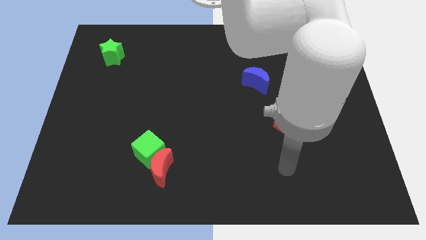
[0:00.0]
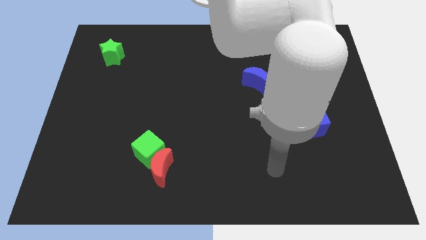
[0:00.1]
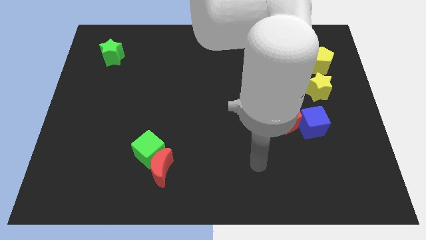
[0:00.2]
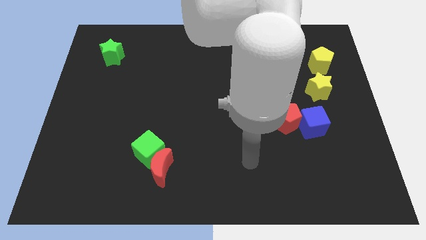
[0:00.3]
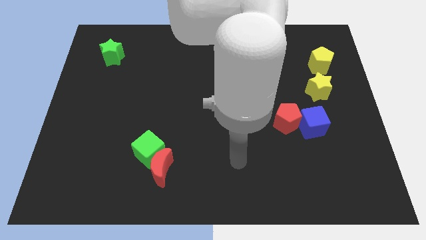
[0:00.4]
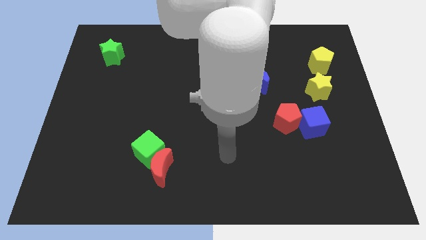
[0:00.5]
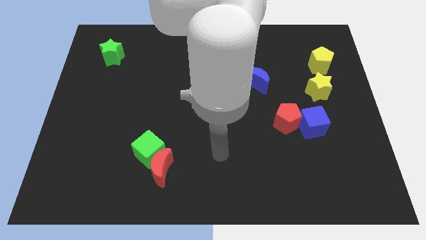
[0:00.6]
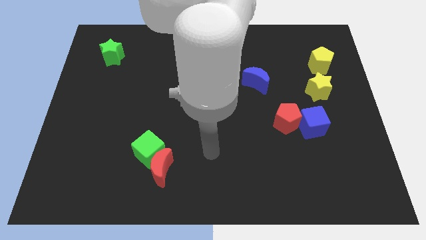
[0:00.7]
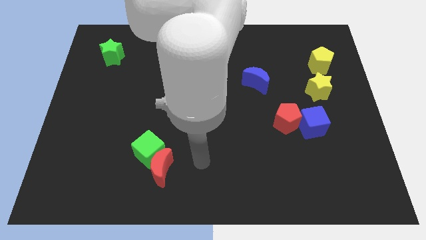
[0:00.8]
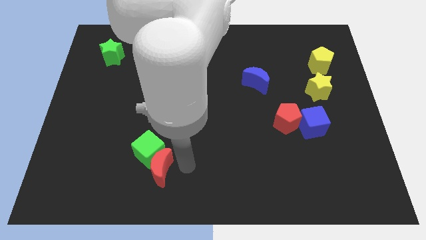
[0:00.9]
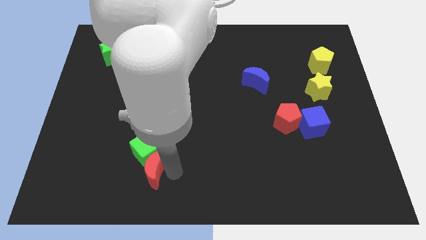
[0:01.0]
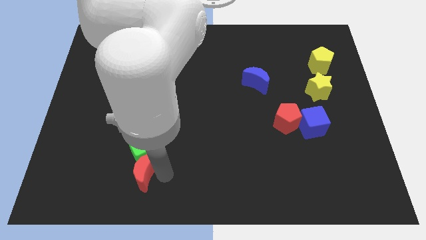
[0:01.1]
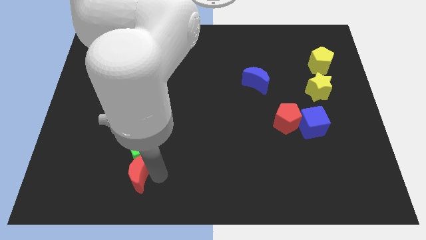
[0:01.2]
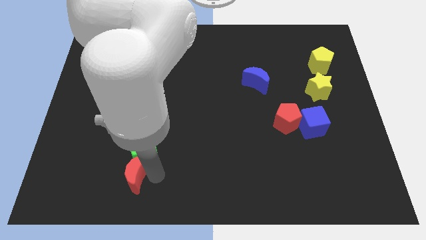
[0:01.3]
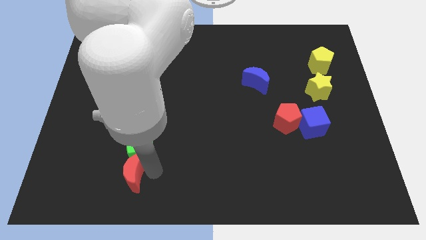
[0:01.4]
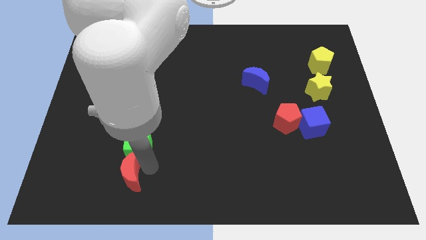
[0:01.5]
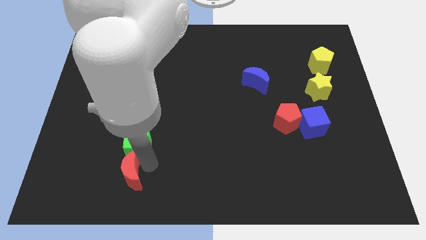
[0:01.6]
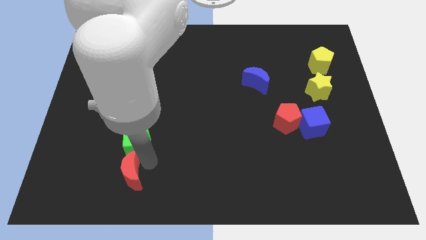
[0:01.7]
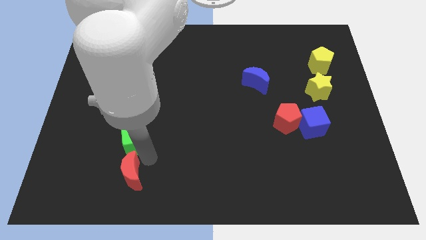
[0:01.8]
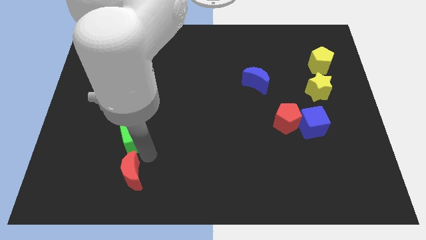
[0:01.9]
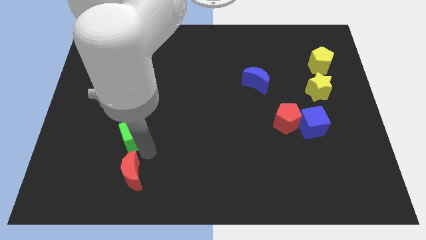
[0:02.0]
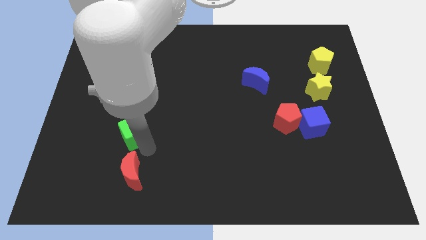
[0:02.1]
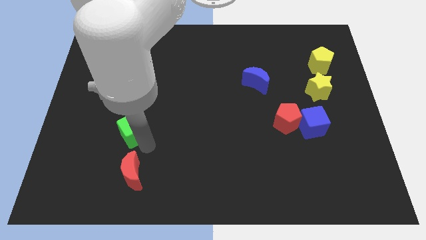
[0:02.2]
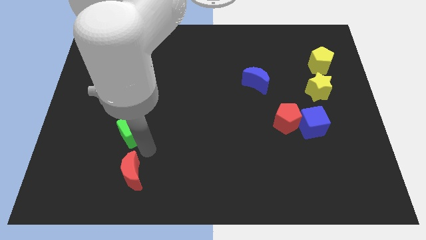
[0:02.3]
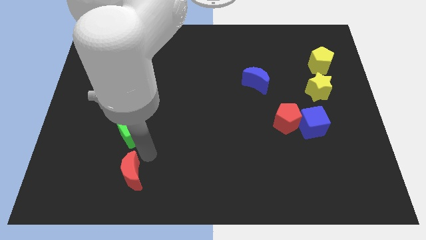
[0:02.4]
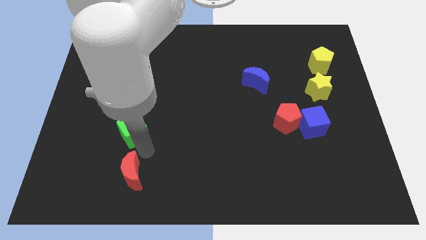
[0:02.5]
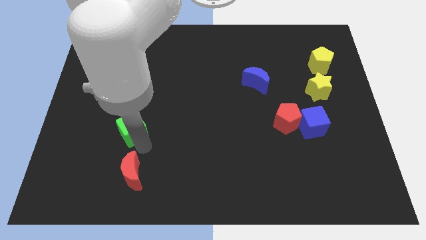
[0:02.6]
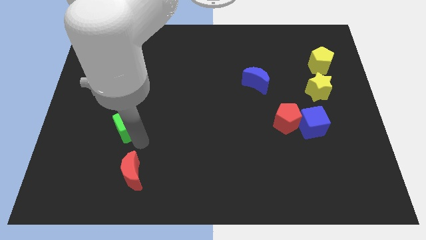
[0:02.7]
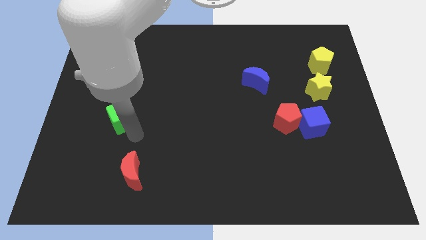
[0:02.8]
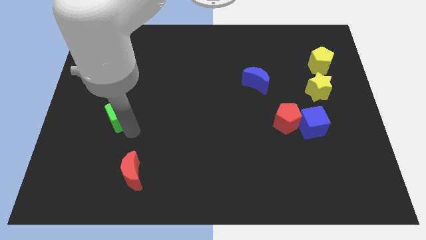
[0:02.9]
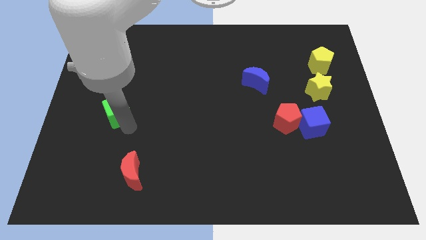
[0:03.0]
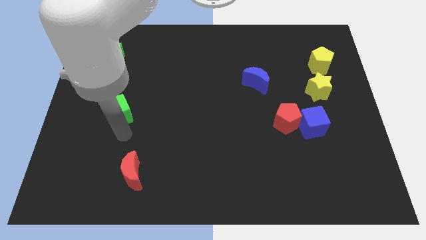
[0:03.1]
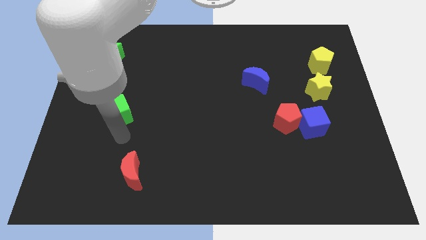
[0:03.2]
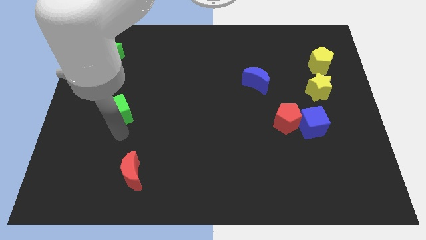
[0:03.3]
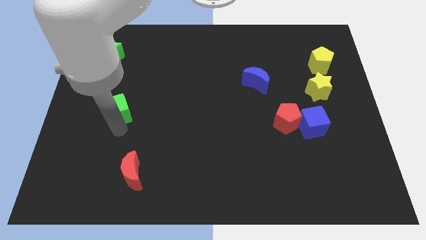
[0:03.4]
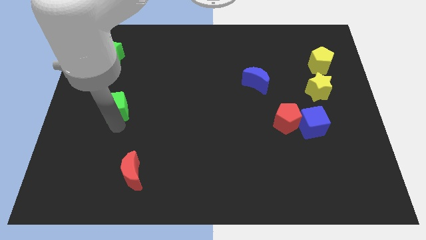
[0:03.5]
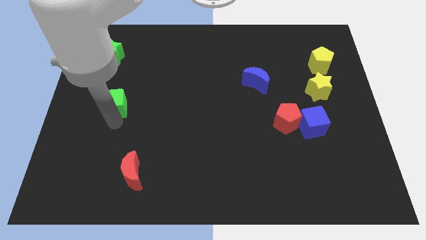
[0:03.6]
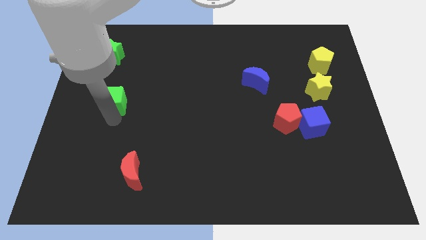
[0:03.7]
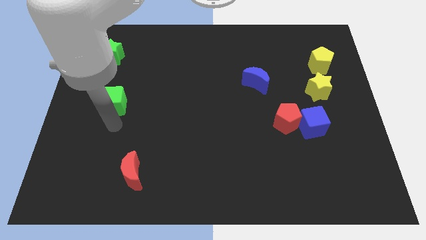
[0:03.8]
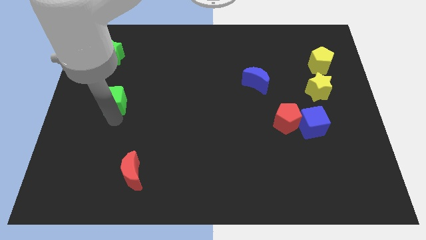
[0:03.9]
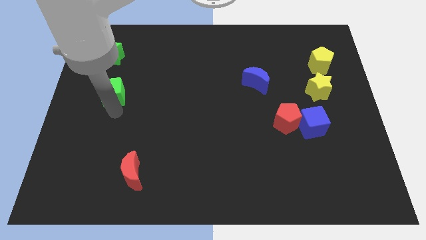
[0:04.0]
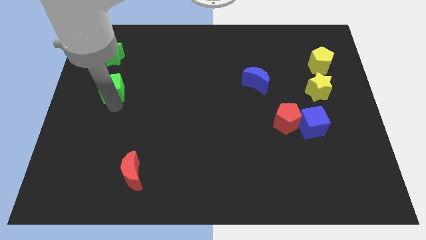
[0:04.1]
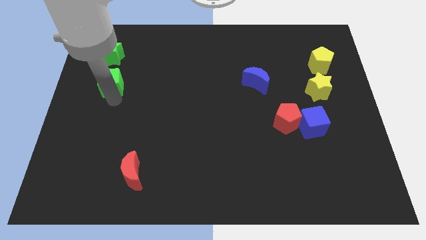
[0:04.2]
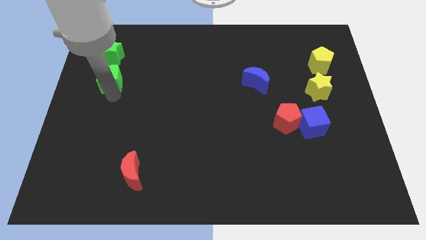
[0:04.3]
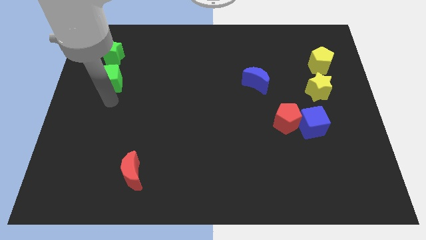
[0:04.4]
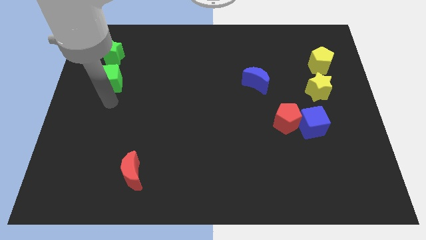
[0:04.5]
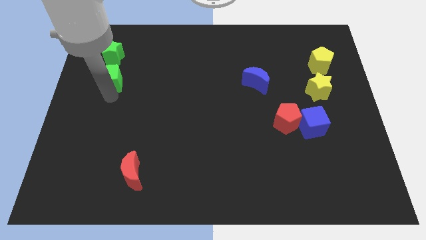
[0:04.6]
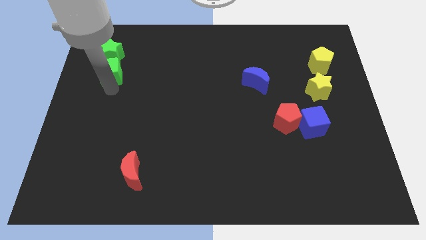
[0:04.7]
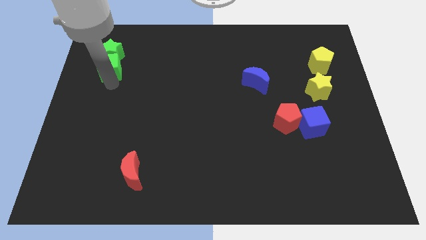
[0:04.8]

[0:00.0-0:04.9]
push the green cube towards the green star

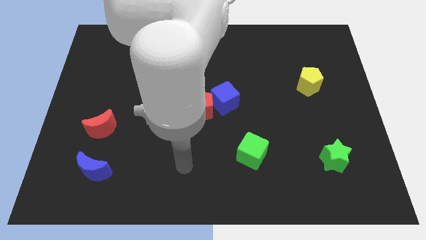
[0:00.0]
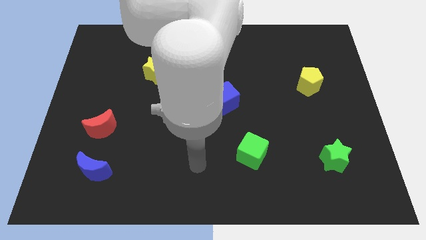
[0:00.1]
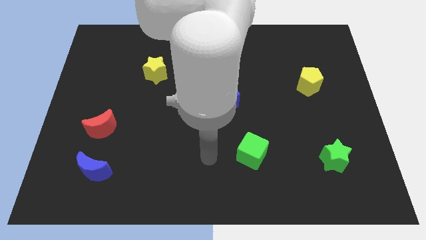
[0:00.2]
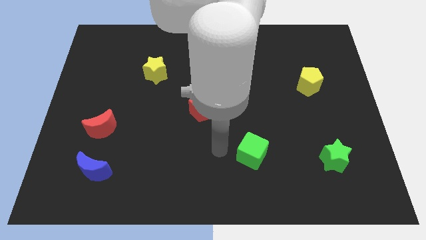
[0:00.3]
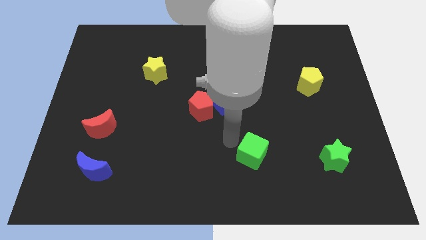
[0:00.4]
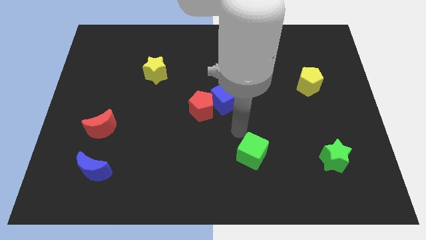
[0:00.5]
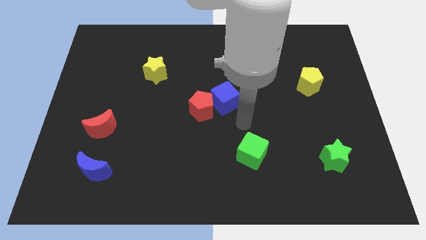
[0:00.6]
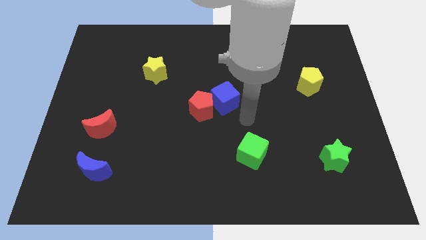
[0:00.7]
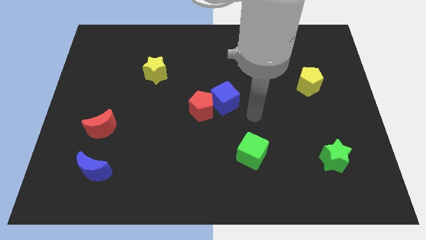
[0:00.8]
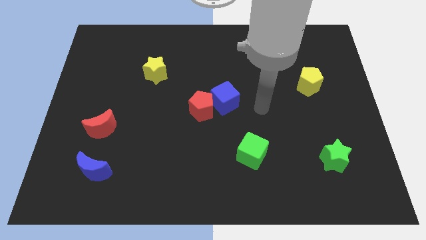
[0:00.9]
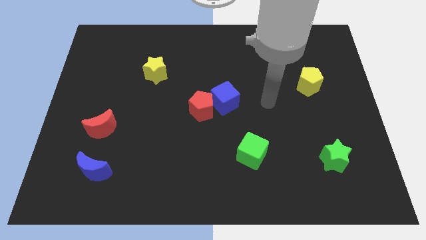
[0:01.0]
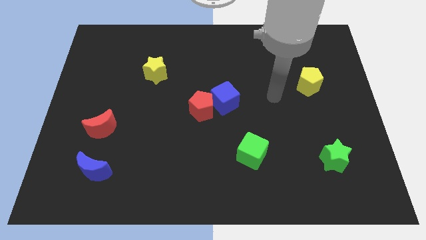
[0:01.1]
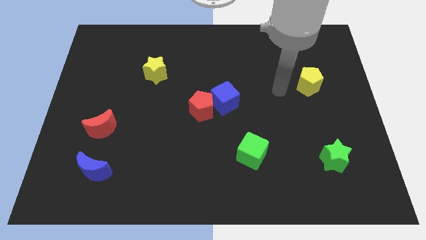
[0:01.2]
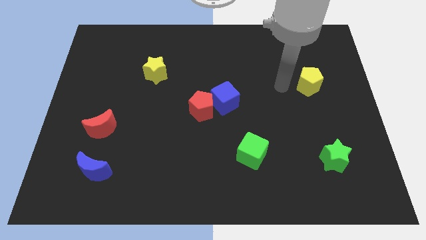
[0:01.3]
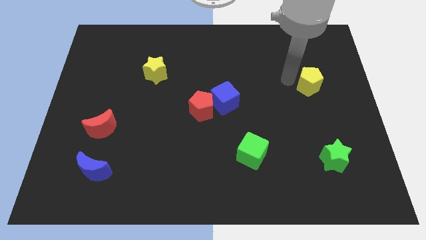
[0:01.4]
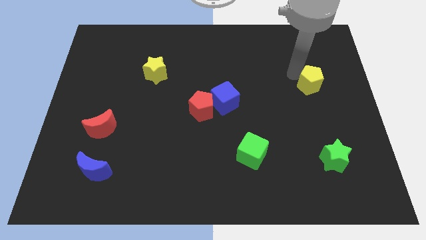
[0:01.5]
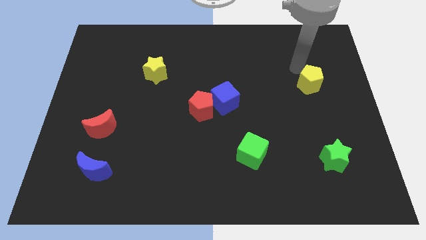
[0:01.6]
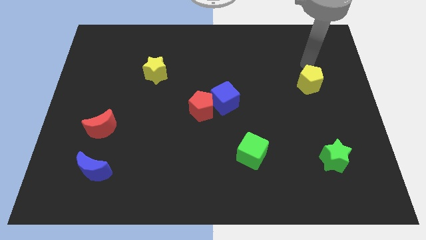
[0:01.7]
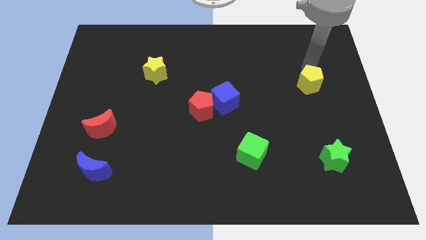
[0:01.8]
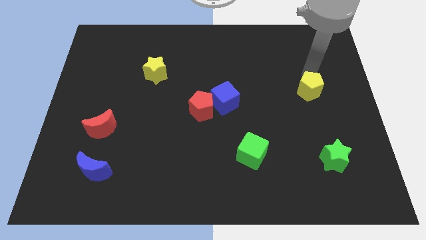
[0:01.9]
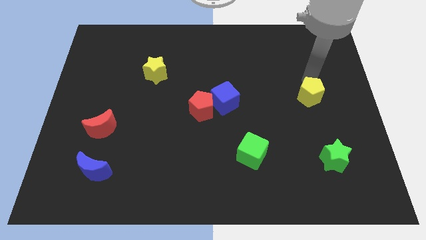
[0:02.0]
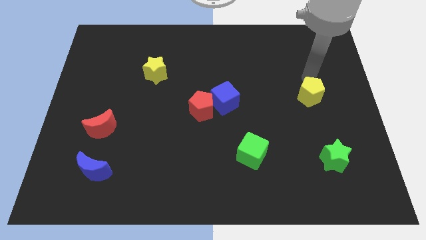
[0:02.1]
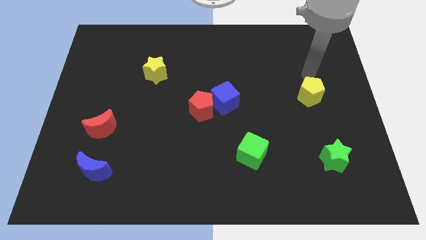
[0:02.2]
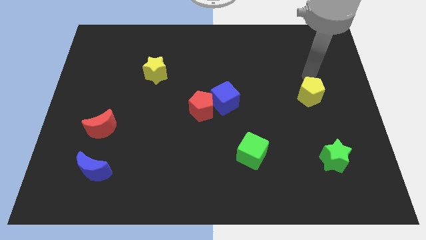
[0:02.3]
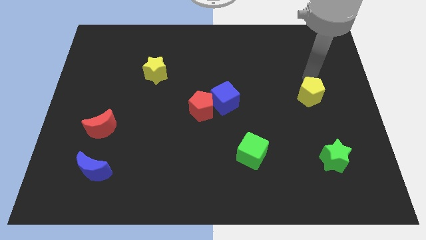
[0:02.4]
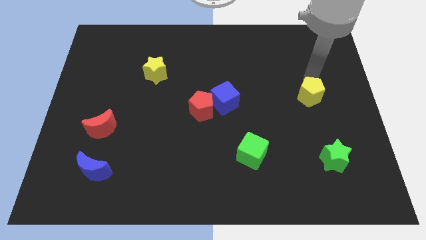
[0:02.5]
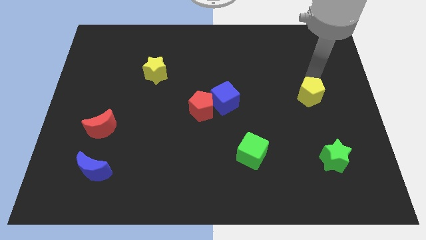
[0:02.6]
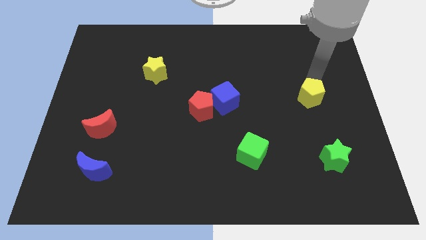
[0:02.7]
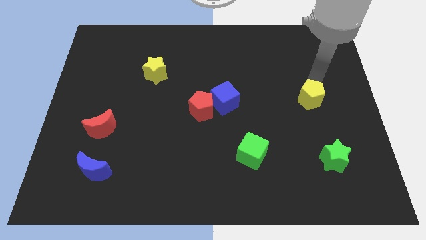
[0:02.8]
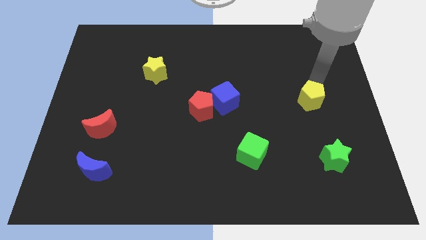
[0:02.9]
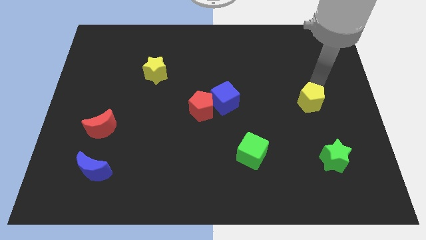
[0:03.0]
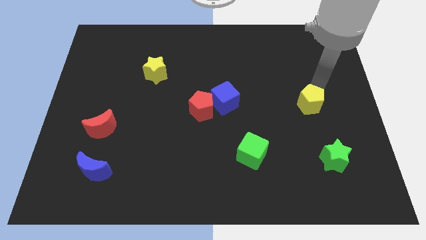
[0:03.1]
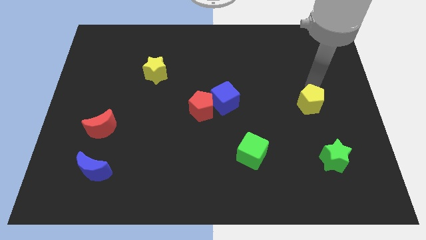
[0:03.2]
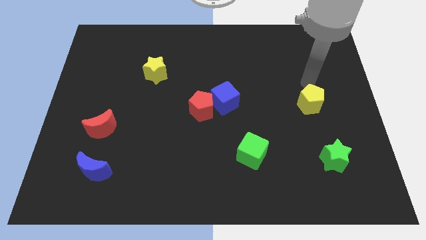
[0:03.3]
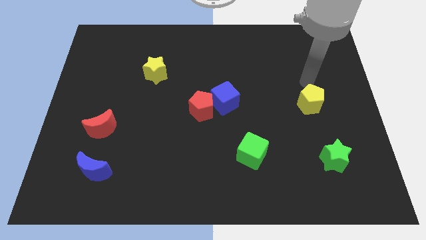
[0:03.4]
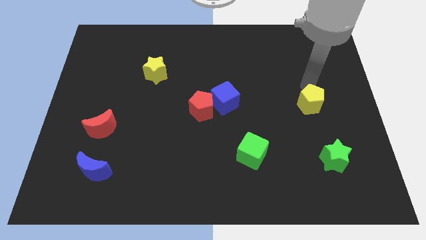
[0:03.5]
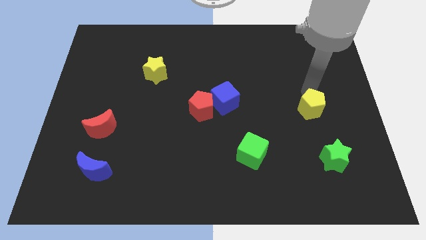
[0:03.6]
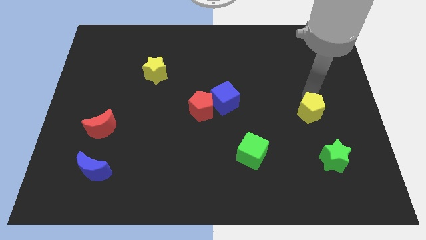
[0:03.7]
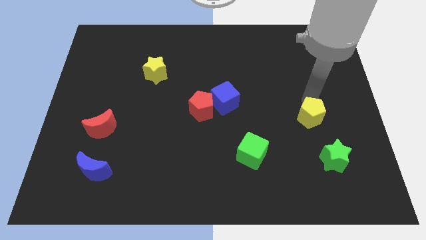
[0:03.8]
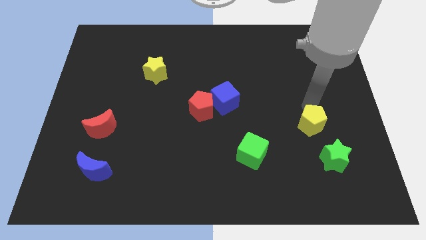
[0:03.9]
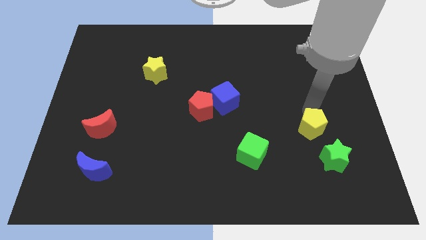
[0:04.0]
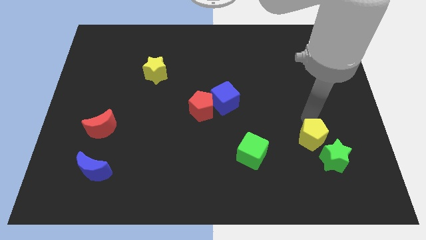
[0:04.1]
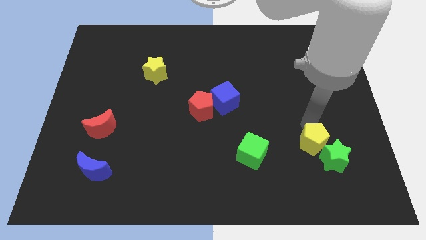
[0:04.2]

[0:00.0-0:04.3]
slide the yellow pentagon to the green star
